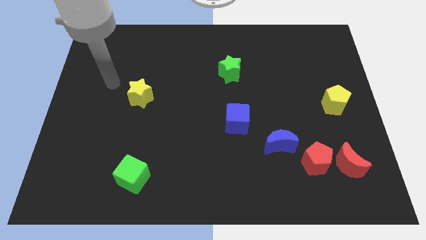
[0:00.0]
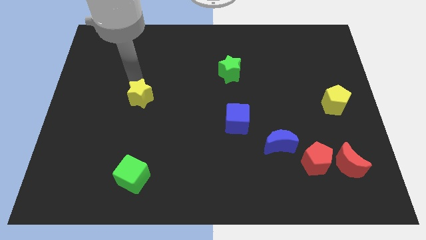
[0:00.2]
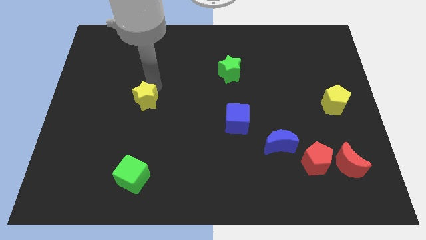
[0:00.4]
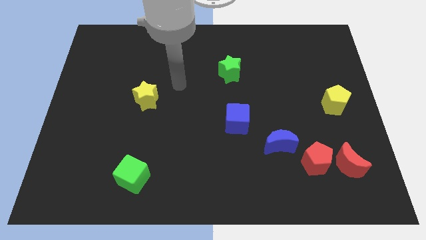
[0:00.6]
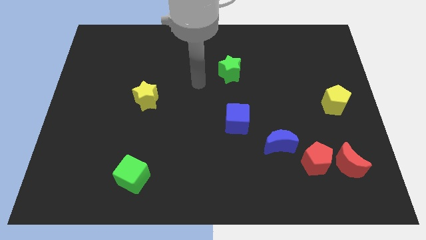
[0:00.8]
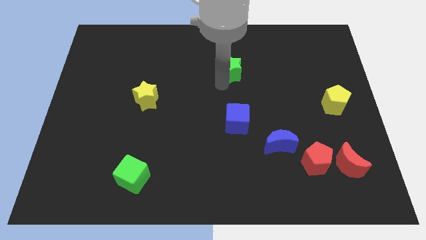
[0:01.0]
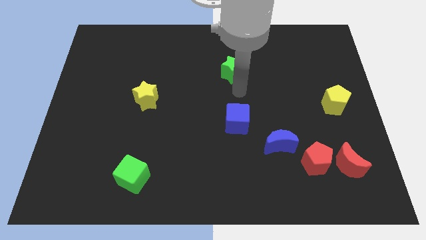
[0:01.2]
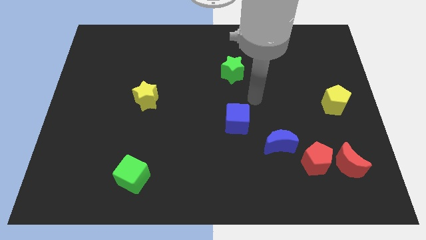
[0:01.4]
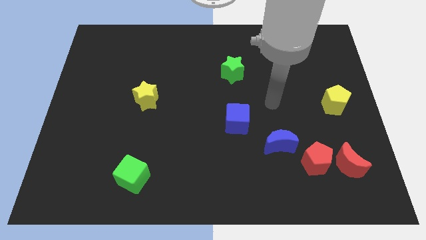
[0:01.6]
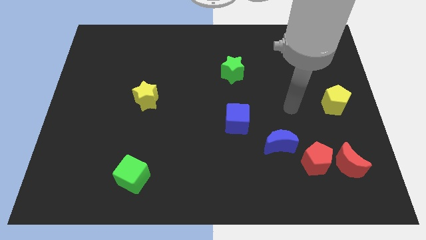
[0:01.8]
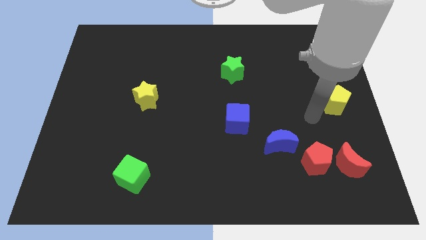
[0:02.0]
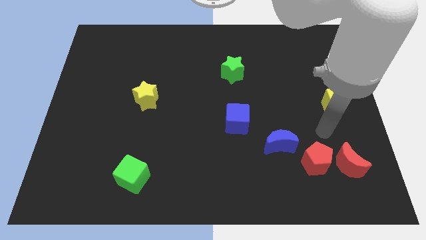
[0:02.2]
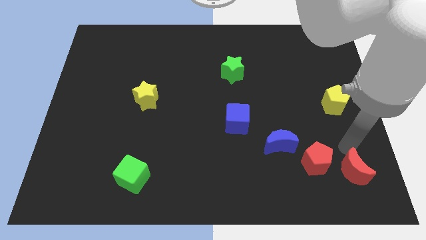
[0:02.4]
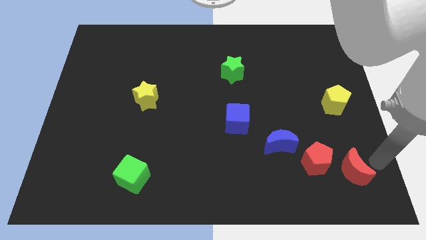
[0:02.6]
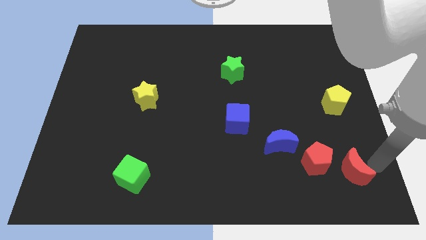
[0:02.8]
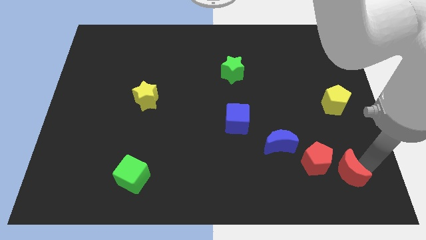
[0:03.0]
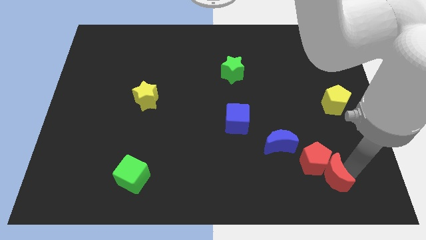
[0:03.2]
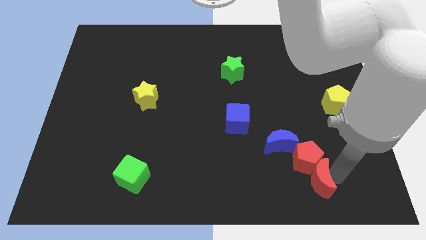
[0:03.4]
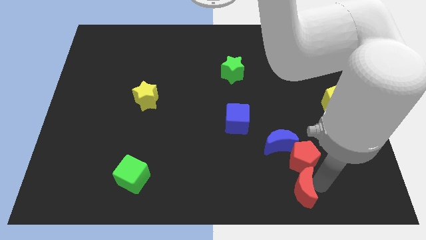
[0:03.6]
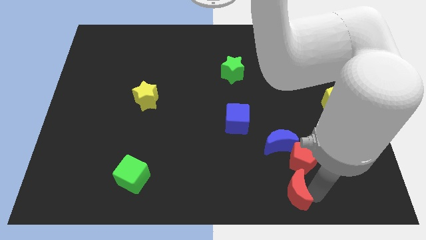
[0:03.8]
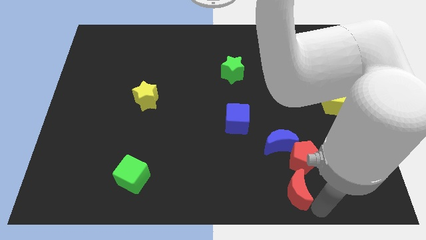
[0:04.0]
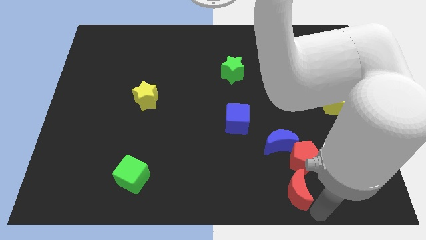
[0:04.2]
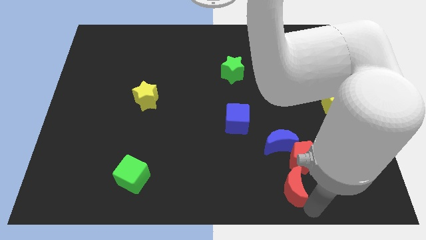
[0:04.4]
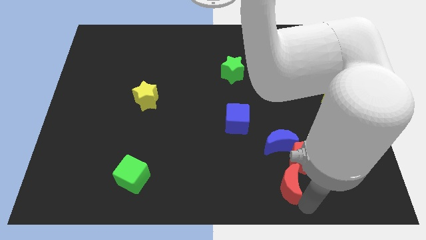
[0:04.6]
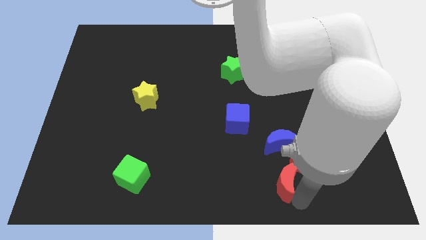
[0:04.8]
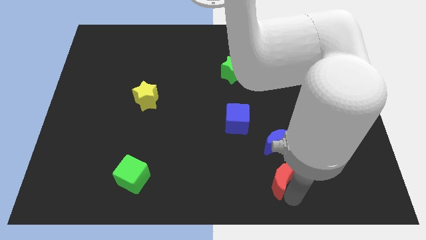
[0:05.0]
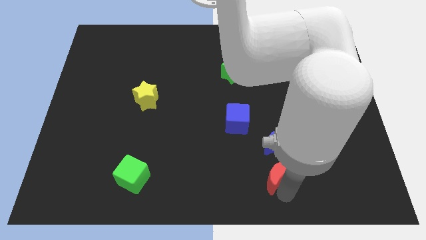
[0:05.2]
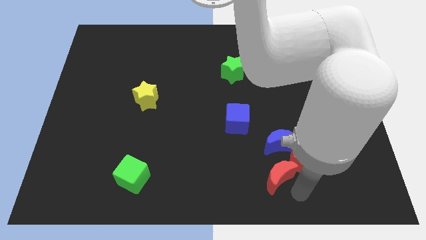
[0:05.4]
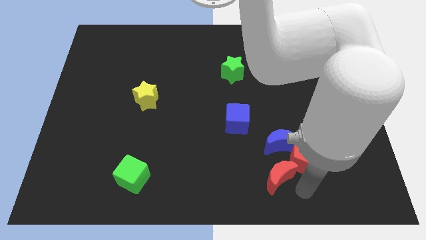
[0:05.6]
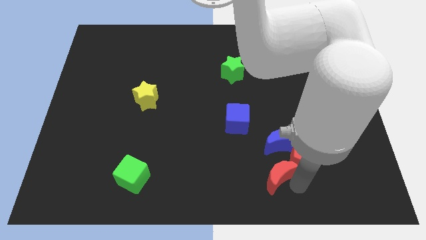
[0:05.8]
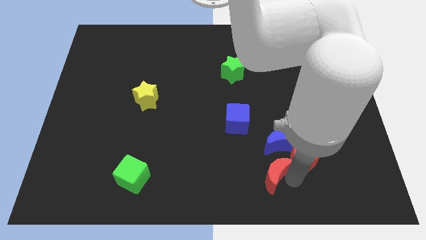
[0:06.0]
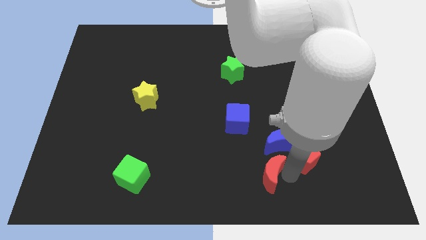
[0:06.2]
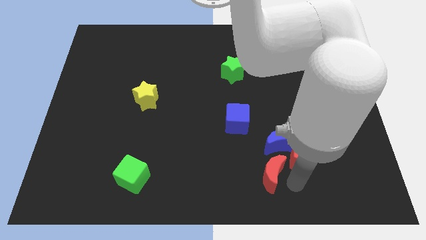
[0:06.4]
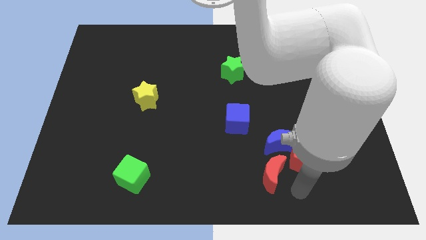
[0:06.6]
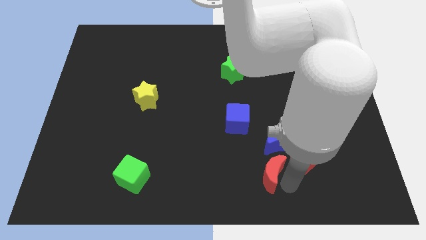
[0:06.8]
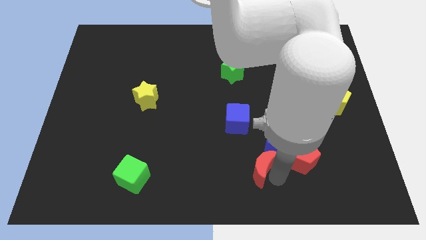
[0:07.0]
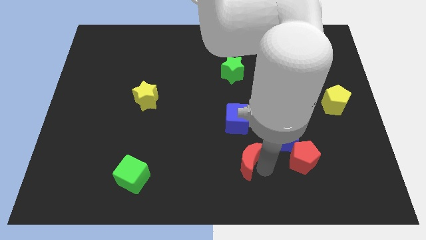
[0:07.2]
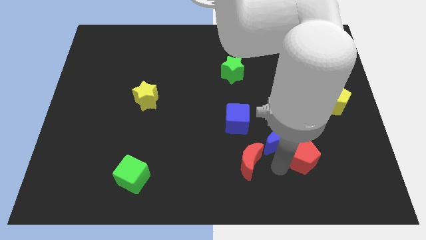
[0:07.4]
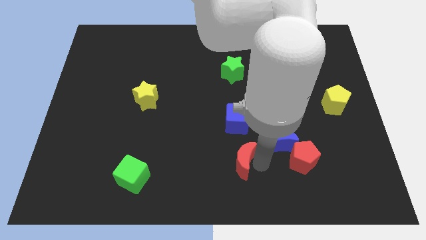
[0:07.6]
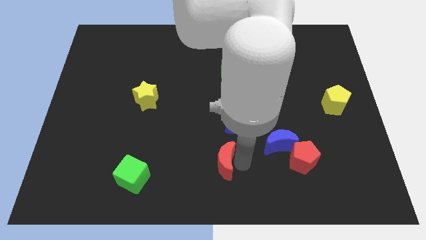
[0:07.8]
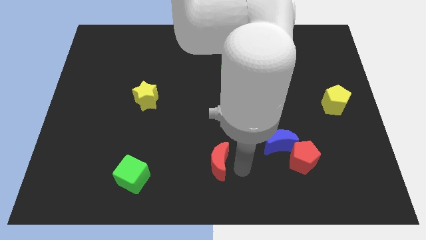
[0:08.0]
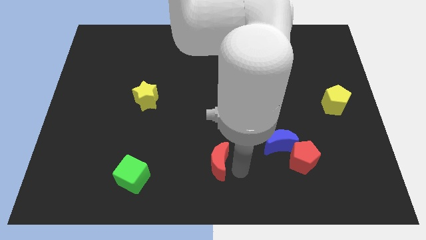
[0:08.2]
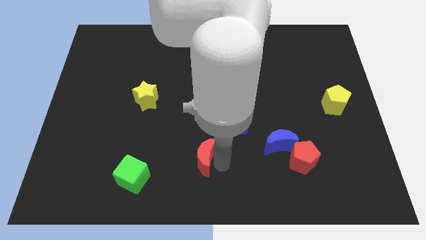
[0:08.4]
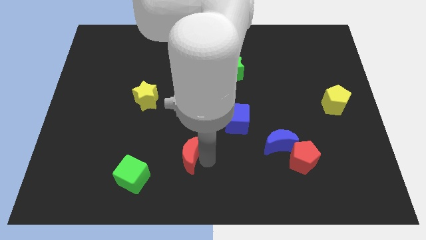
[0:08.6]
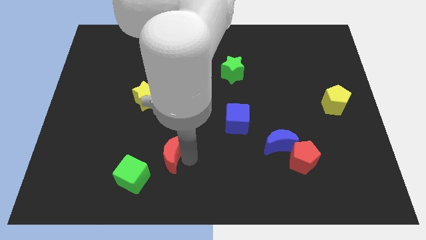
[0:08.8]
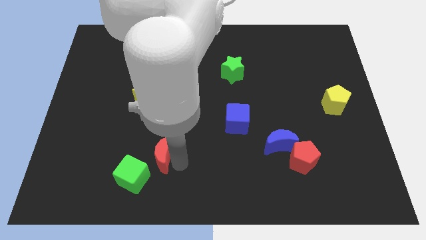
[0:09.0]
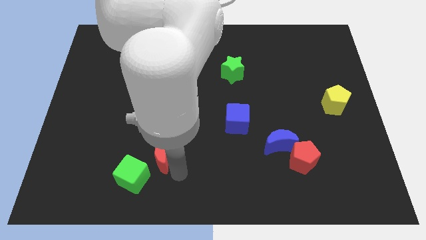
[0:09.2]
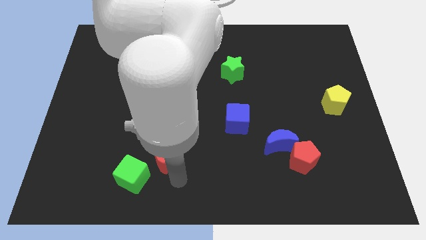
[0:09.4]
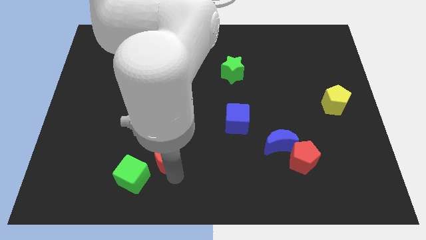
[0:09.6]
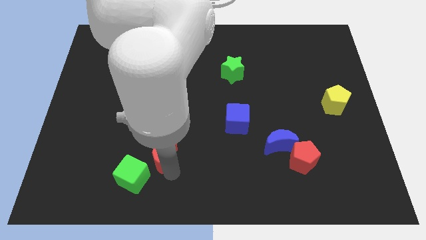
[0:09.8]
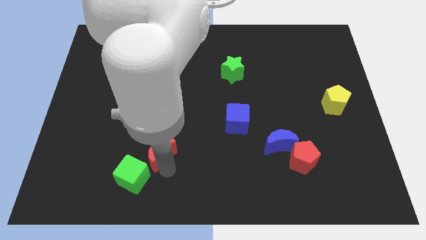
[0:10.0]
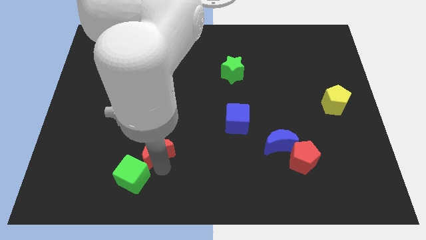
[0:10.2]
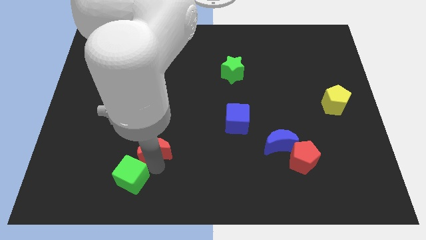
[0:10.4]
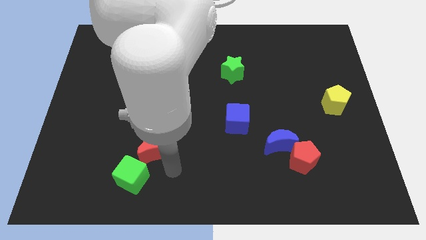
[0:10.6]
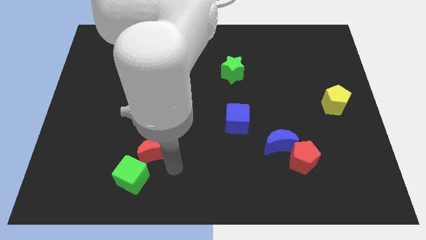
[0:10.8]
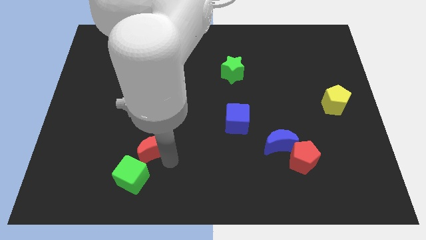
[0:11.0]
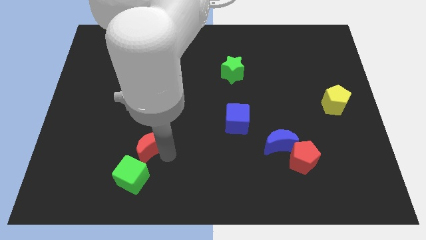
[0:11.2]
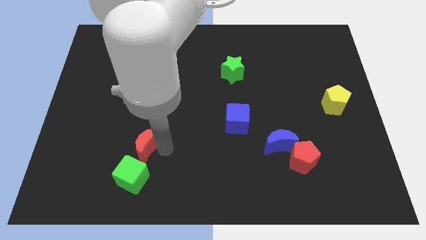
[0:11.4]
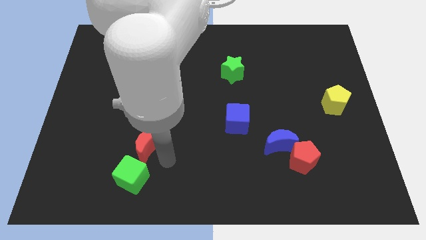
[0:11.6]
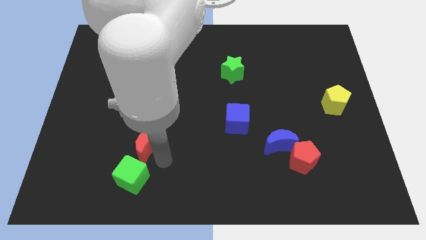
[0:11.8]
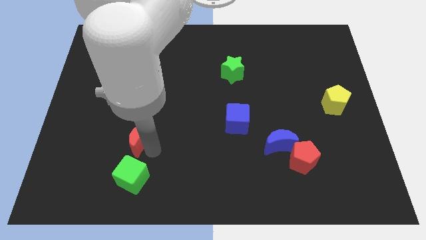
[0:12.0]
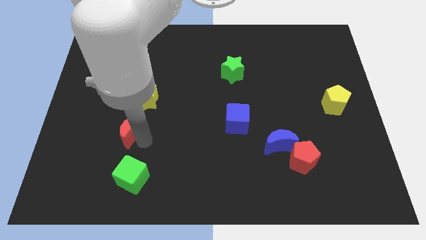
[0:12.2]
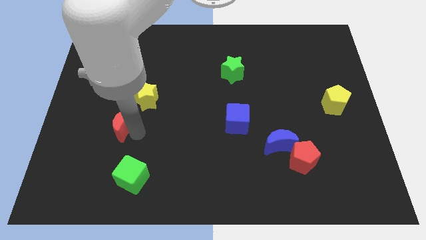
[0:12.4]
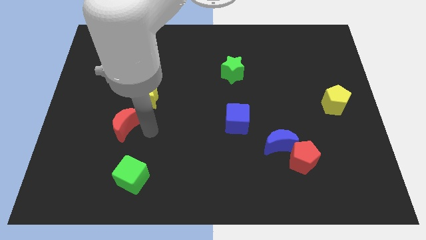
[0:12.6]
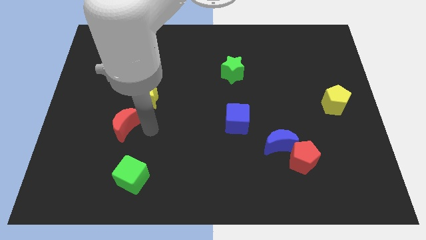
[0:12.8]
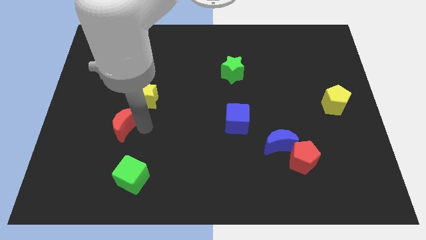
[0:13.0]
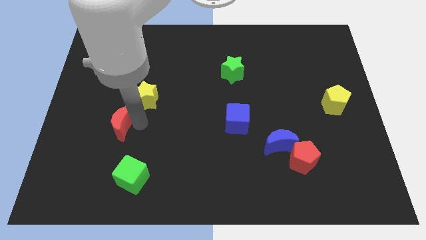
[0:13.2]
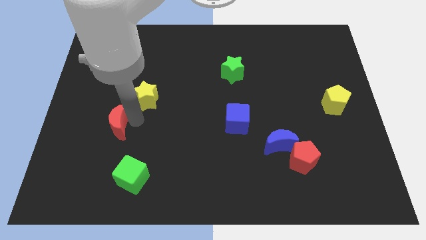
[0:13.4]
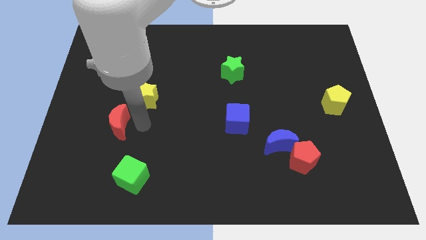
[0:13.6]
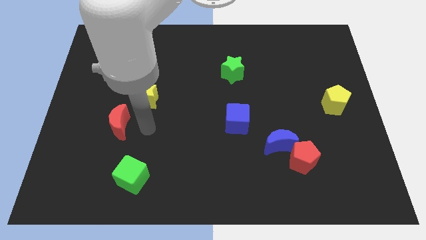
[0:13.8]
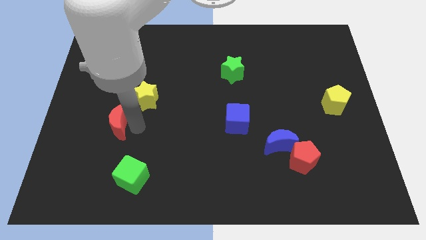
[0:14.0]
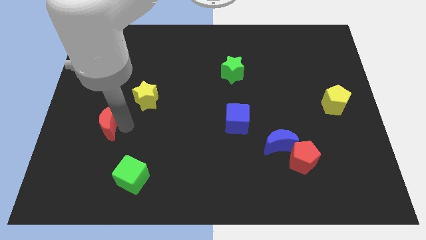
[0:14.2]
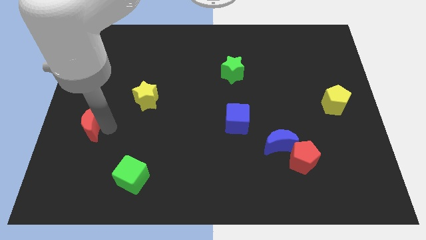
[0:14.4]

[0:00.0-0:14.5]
put the red moon to the left side of the board
